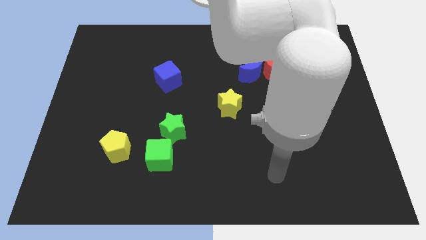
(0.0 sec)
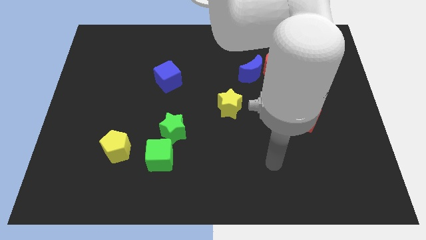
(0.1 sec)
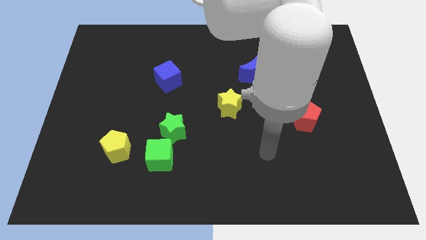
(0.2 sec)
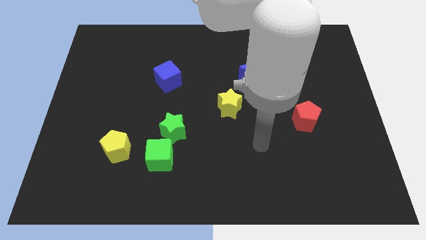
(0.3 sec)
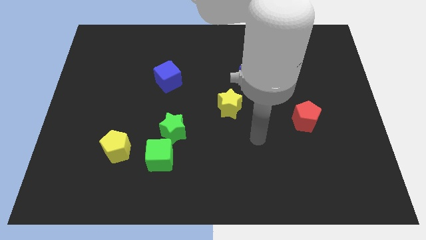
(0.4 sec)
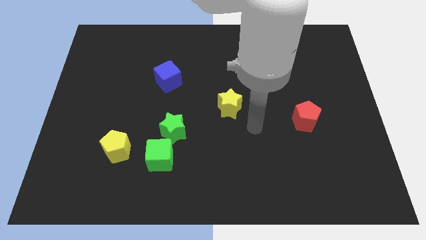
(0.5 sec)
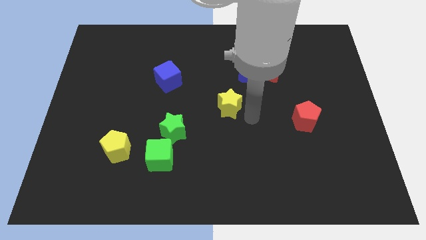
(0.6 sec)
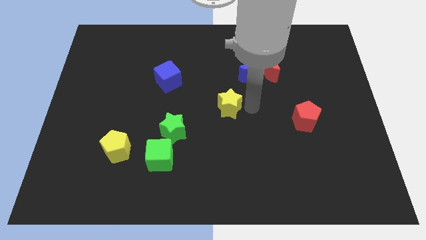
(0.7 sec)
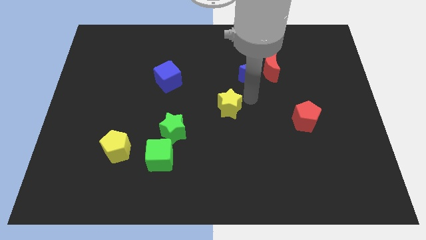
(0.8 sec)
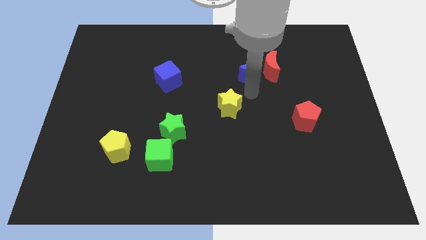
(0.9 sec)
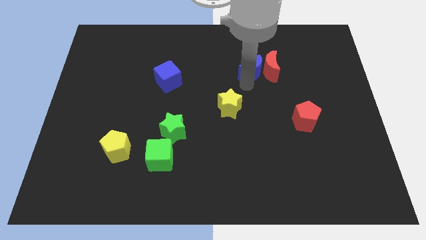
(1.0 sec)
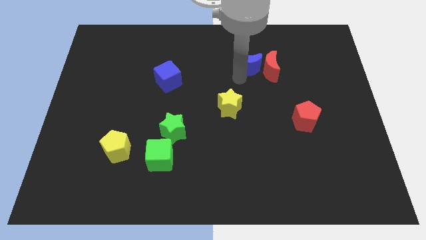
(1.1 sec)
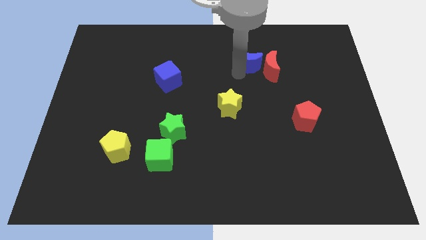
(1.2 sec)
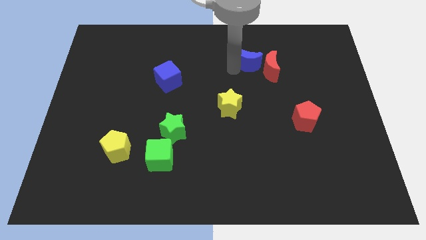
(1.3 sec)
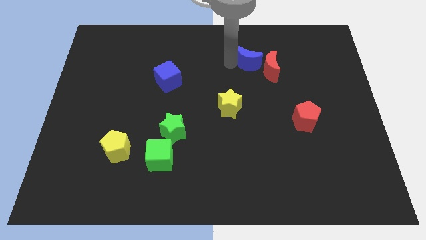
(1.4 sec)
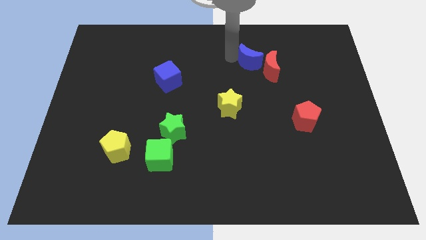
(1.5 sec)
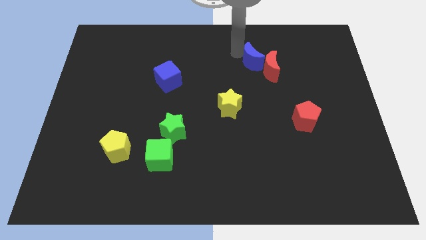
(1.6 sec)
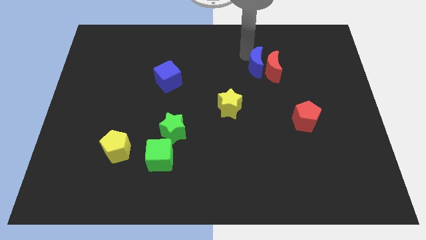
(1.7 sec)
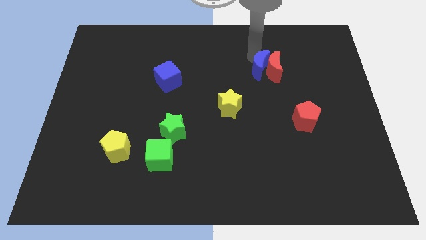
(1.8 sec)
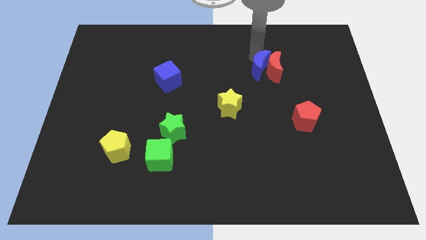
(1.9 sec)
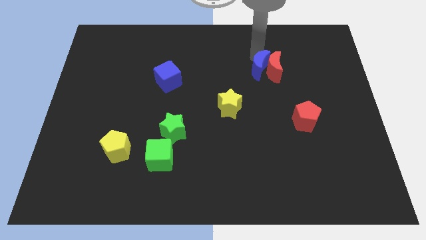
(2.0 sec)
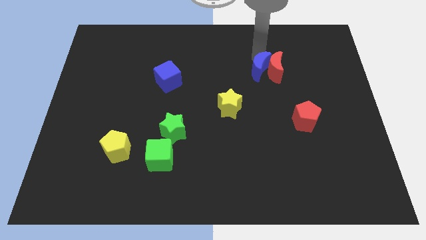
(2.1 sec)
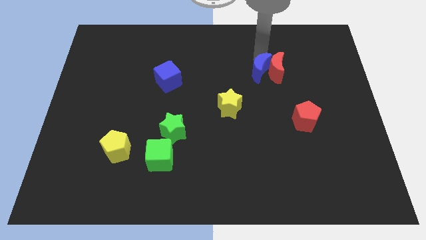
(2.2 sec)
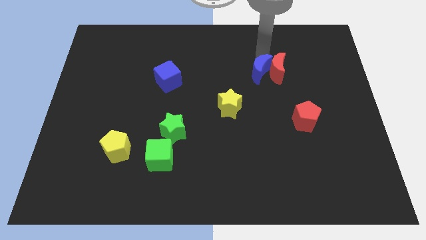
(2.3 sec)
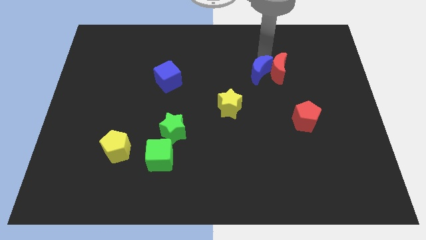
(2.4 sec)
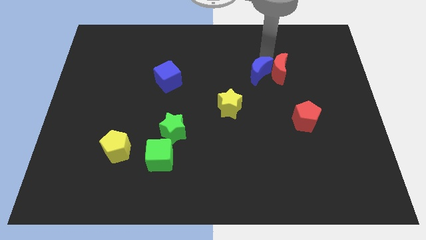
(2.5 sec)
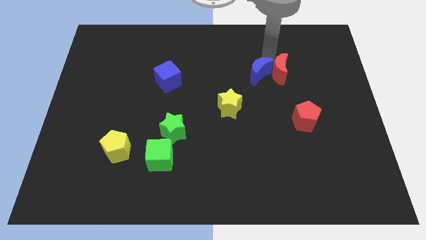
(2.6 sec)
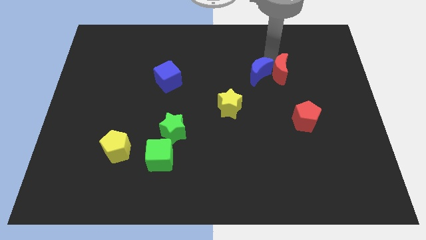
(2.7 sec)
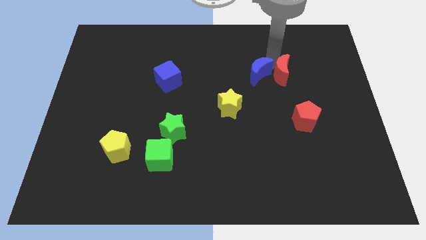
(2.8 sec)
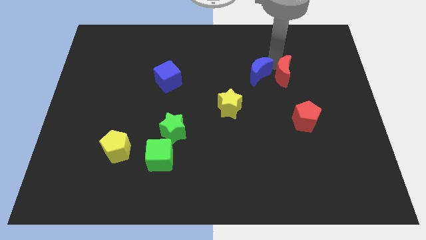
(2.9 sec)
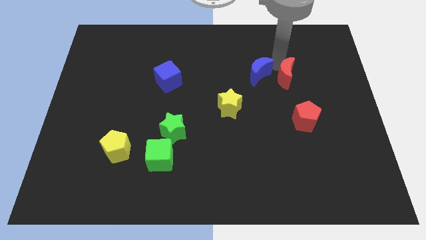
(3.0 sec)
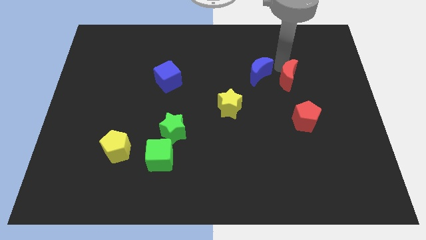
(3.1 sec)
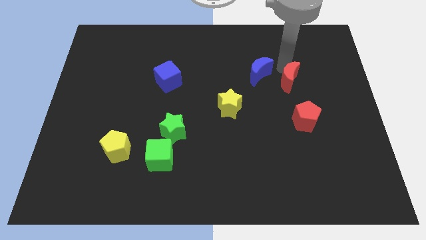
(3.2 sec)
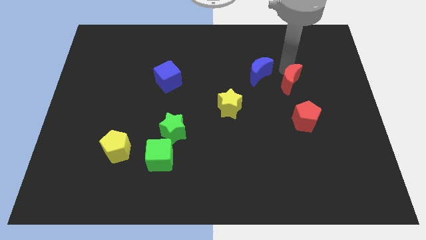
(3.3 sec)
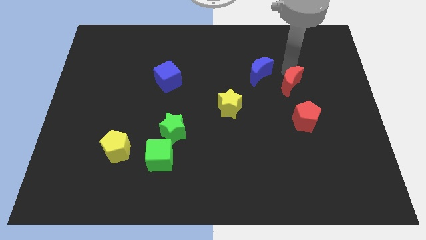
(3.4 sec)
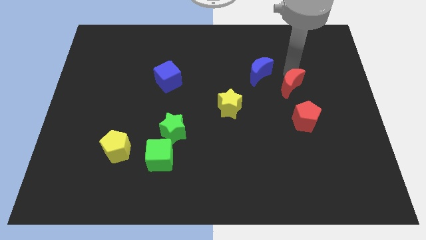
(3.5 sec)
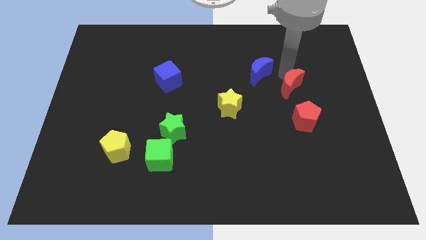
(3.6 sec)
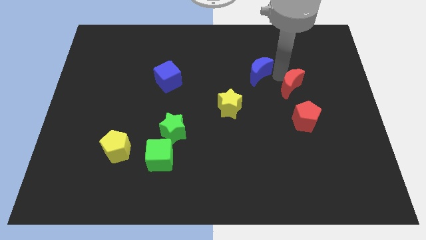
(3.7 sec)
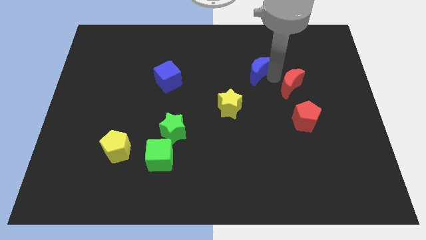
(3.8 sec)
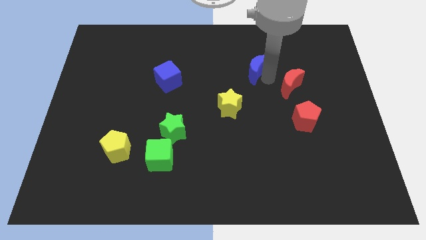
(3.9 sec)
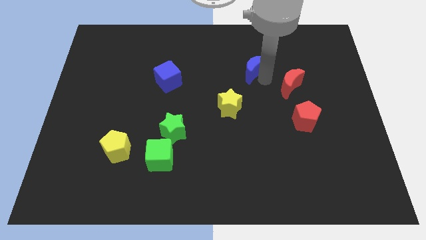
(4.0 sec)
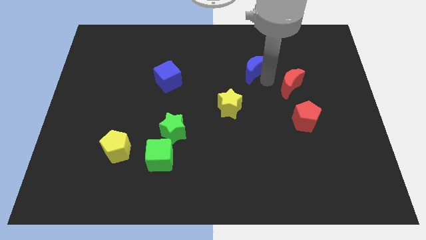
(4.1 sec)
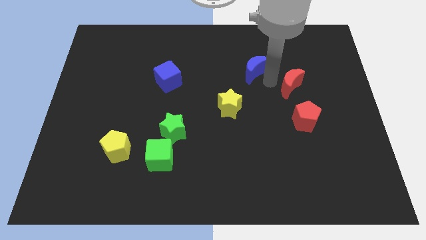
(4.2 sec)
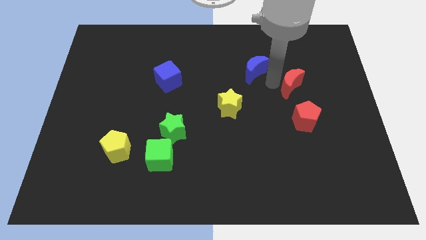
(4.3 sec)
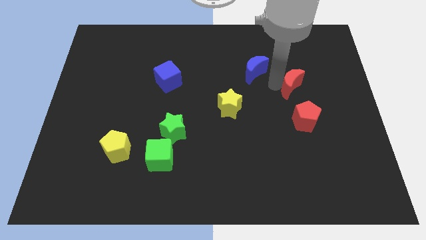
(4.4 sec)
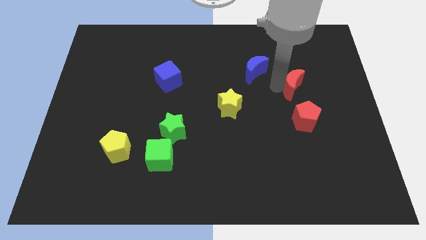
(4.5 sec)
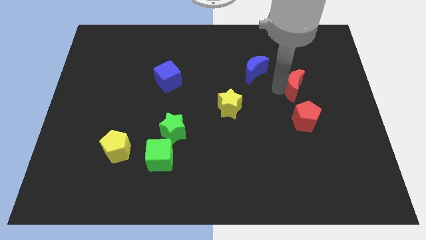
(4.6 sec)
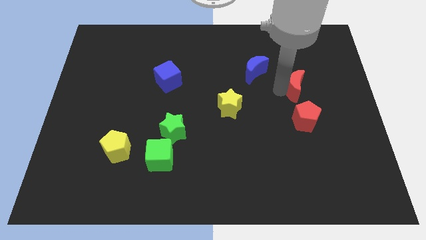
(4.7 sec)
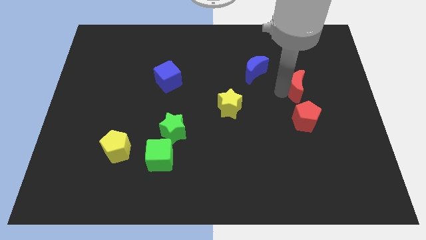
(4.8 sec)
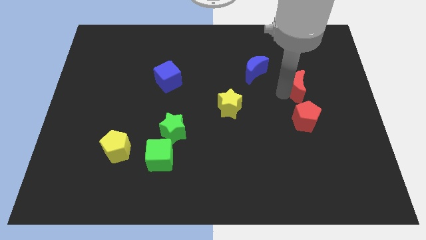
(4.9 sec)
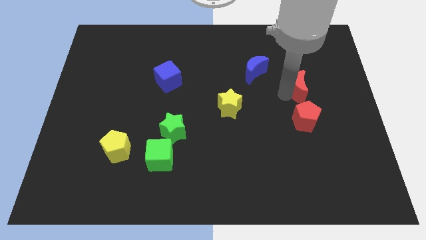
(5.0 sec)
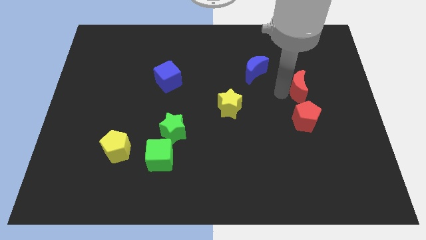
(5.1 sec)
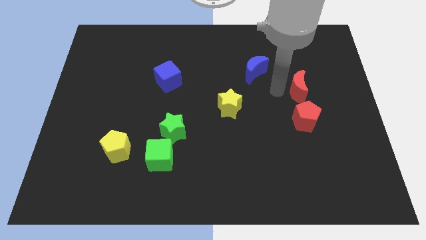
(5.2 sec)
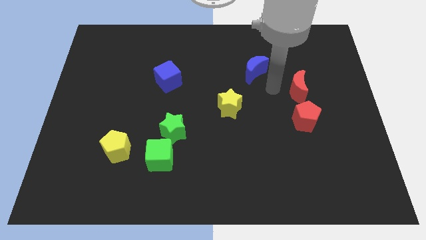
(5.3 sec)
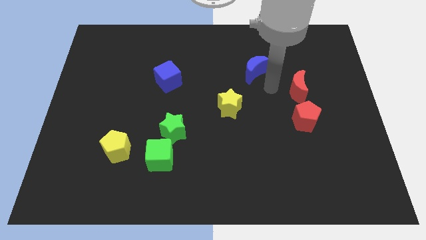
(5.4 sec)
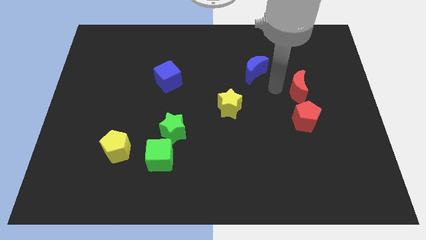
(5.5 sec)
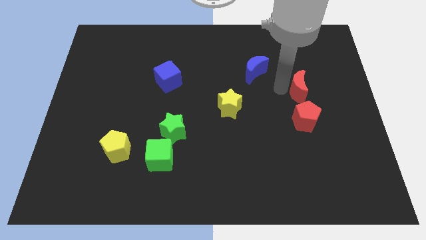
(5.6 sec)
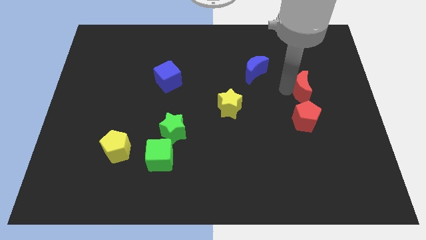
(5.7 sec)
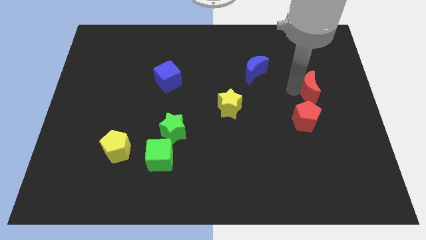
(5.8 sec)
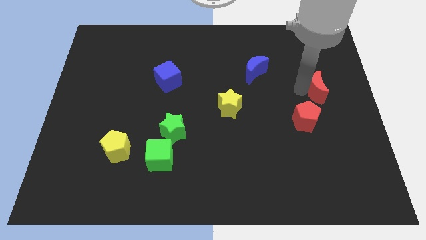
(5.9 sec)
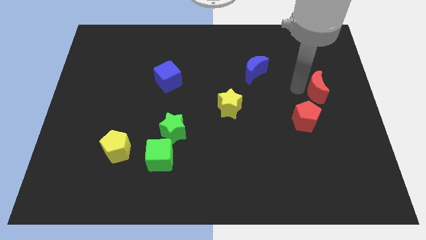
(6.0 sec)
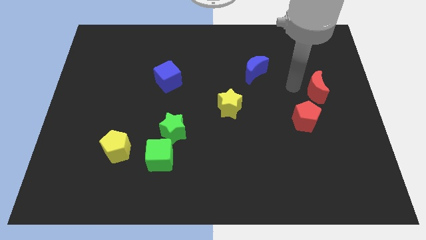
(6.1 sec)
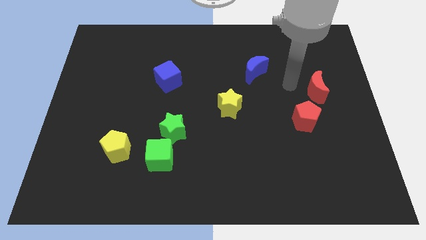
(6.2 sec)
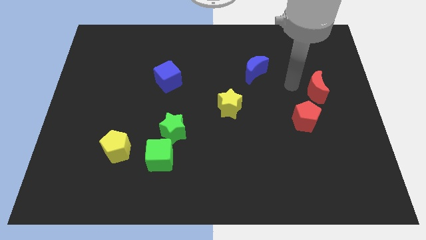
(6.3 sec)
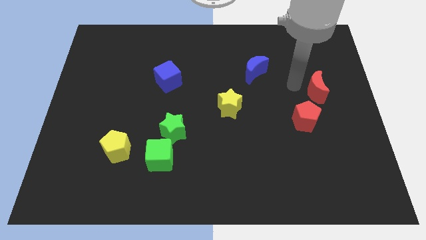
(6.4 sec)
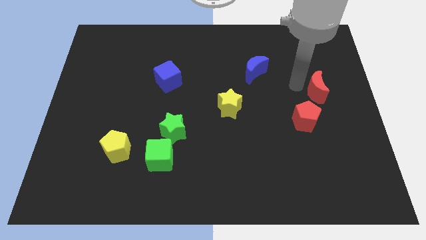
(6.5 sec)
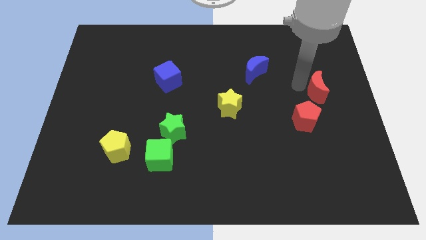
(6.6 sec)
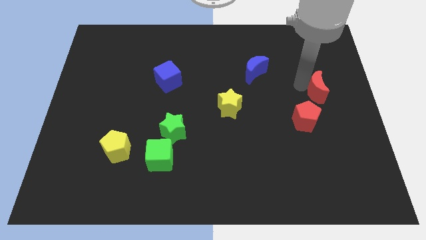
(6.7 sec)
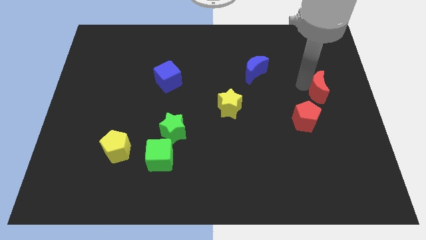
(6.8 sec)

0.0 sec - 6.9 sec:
put the red moon to the center right
